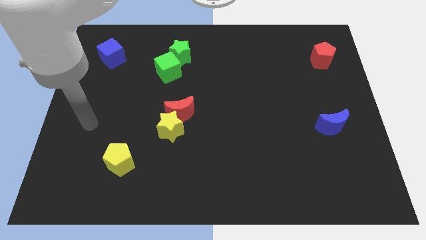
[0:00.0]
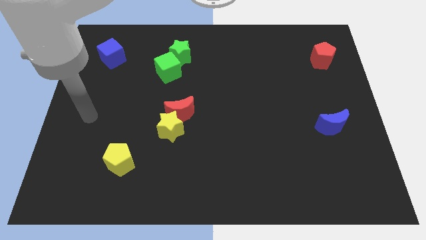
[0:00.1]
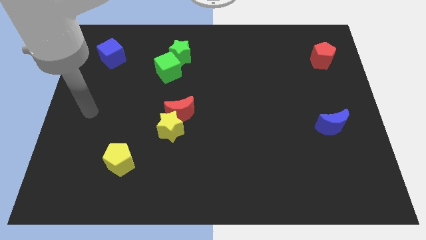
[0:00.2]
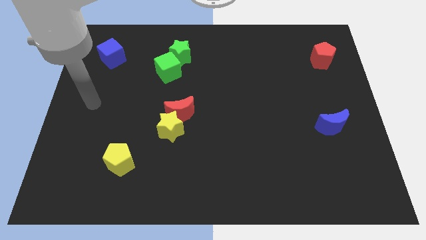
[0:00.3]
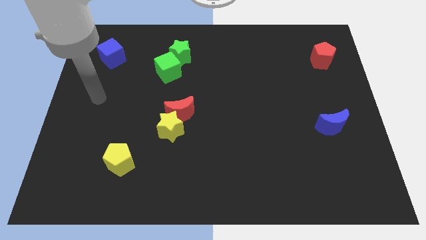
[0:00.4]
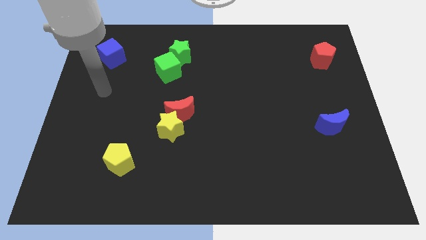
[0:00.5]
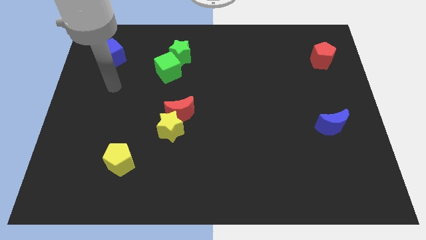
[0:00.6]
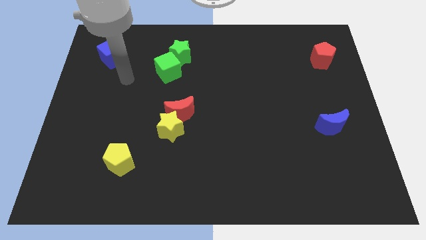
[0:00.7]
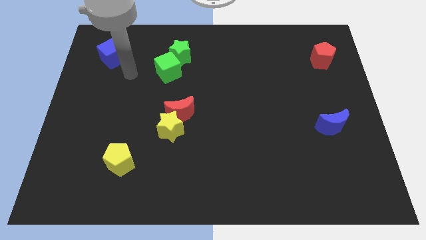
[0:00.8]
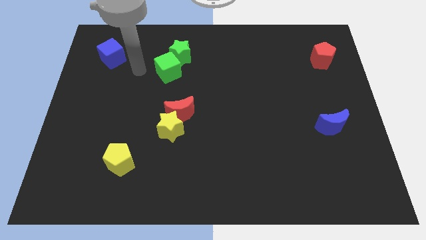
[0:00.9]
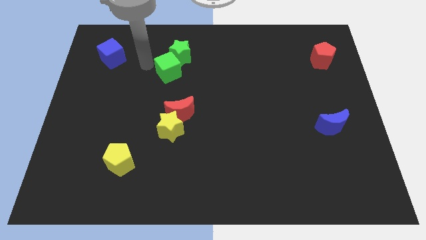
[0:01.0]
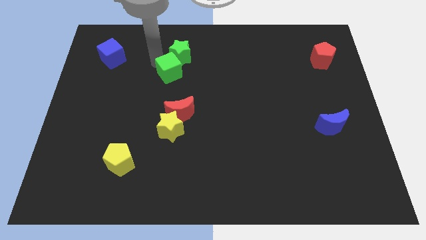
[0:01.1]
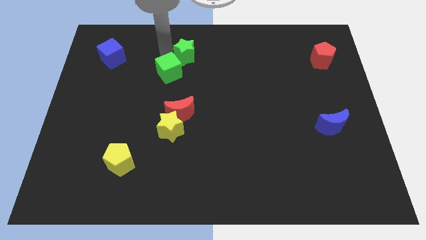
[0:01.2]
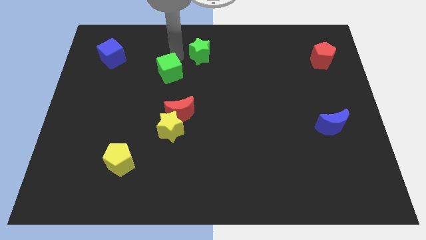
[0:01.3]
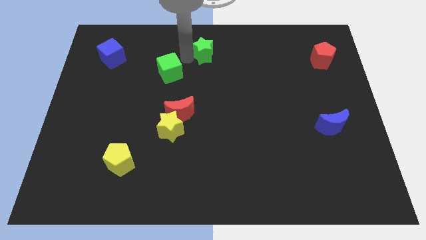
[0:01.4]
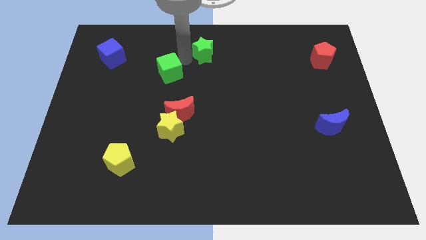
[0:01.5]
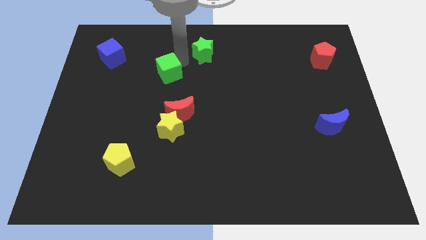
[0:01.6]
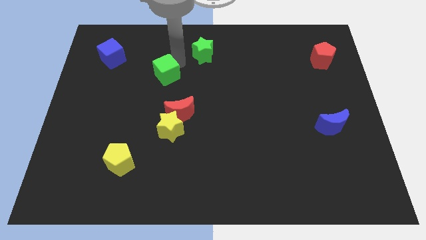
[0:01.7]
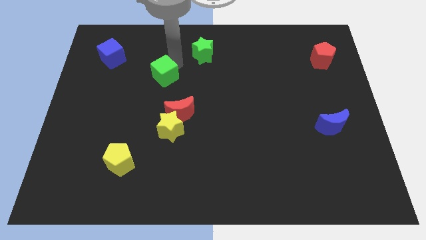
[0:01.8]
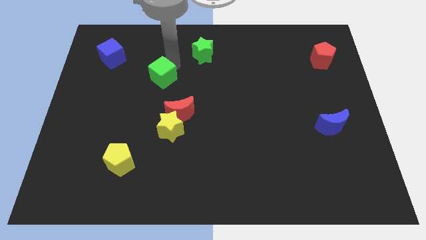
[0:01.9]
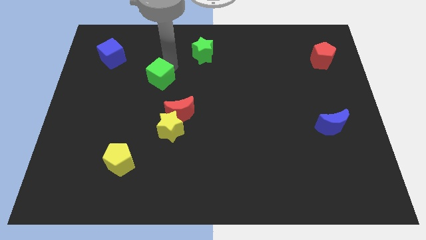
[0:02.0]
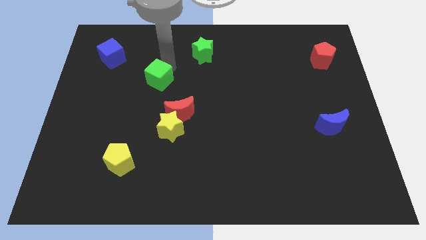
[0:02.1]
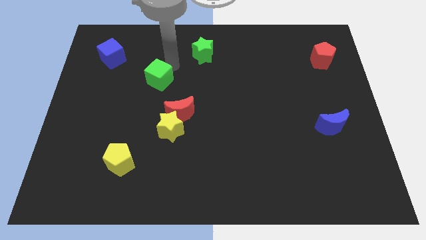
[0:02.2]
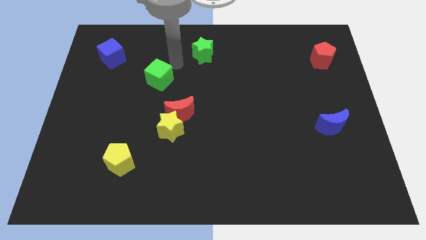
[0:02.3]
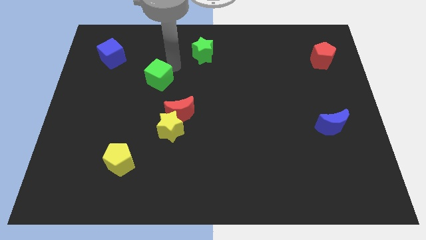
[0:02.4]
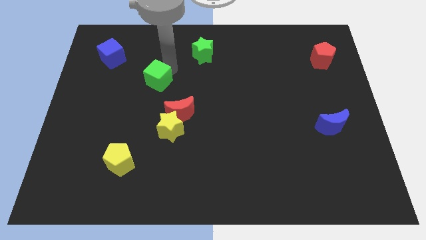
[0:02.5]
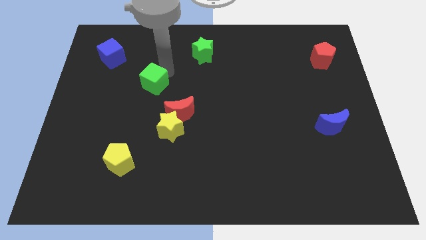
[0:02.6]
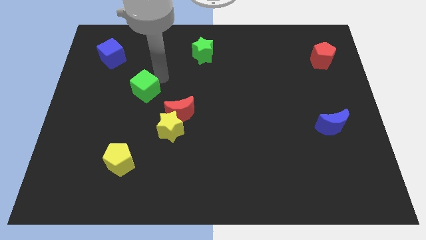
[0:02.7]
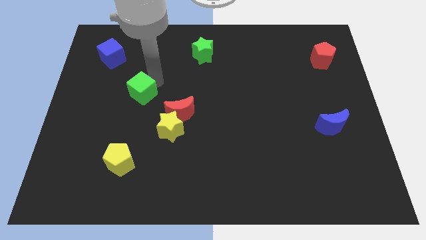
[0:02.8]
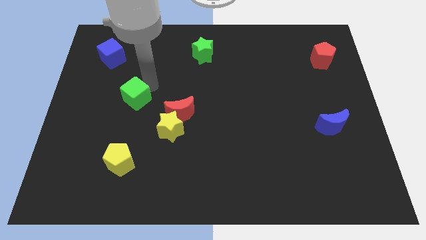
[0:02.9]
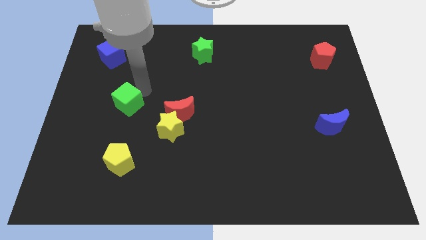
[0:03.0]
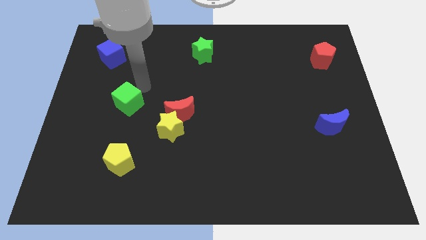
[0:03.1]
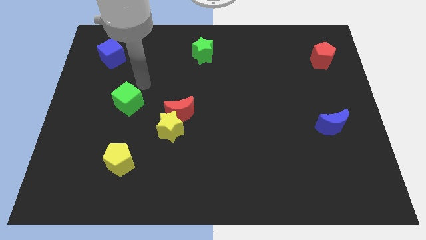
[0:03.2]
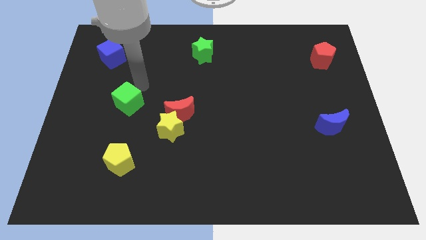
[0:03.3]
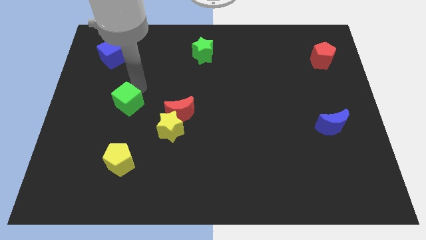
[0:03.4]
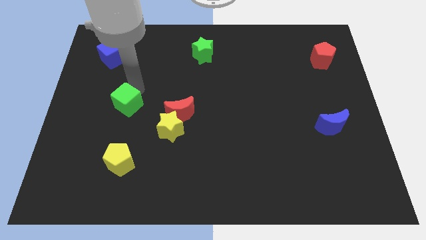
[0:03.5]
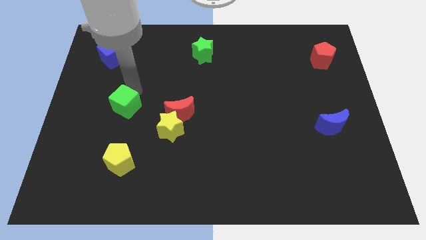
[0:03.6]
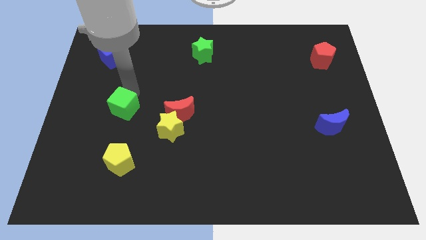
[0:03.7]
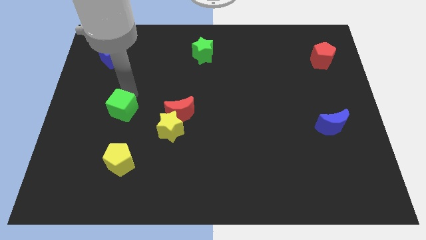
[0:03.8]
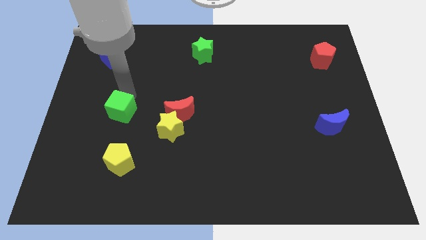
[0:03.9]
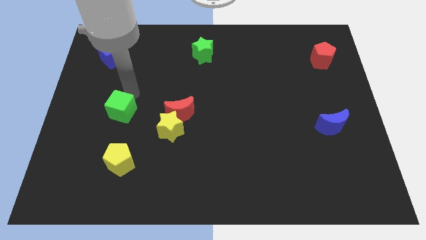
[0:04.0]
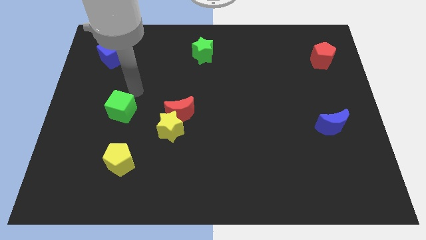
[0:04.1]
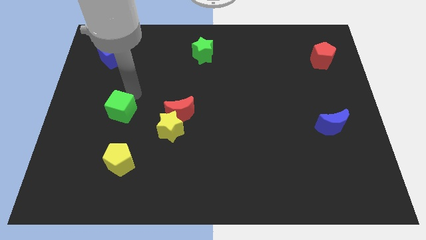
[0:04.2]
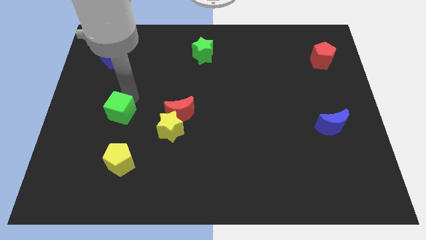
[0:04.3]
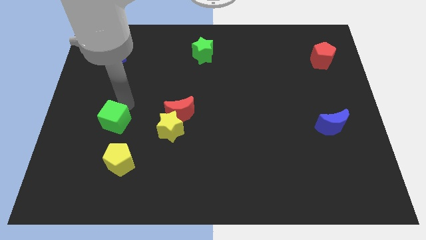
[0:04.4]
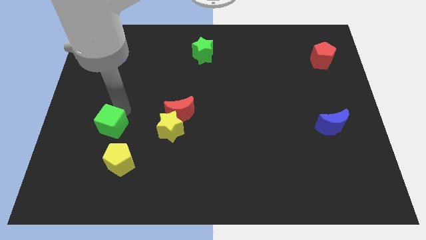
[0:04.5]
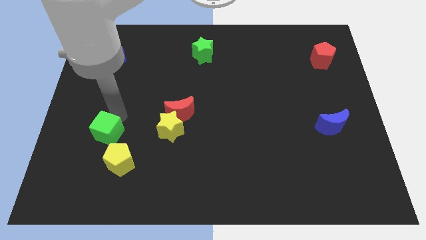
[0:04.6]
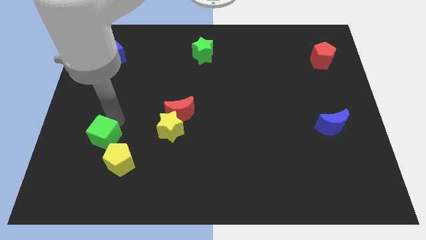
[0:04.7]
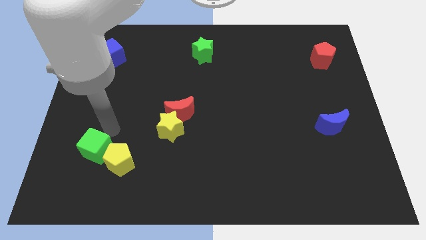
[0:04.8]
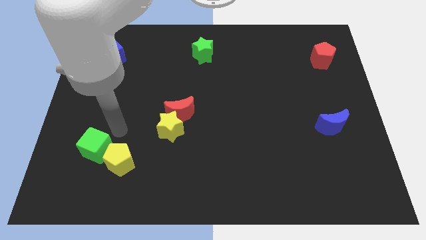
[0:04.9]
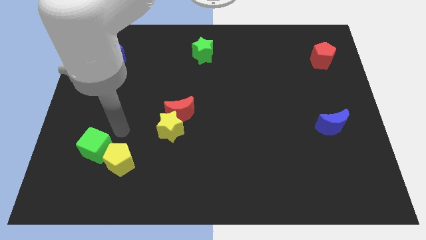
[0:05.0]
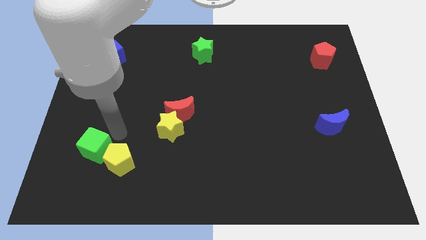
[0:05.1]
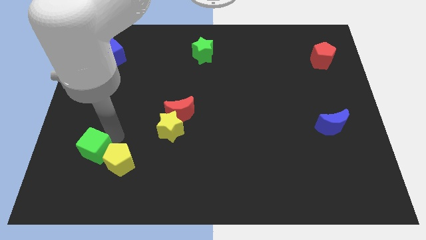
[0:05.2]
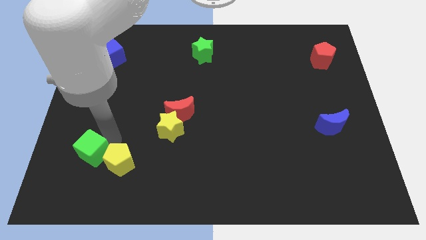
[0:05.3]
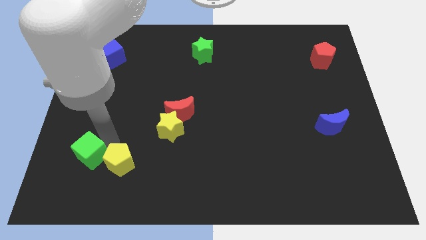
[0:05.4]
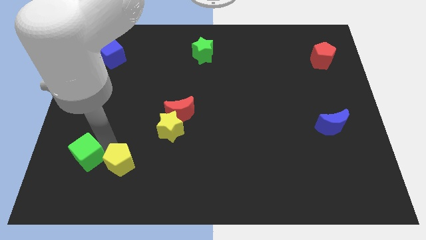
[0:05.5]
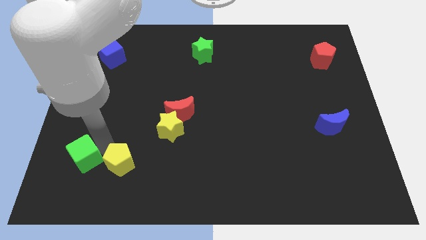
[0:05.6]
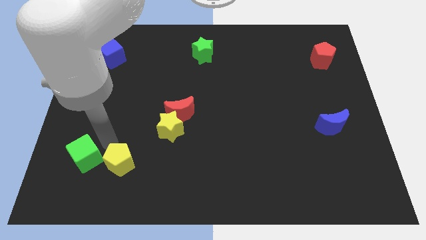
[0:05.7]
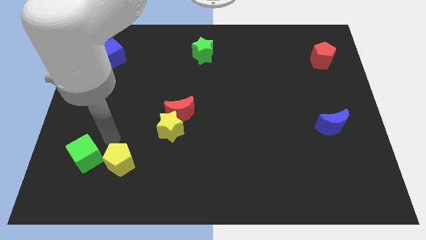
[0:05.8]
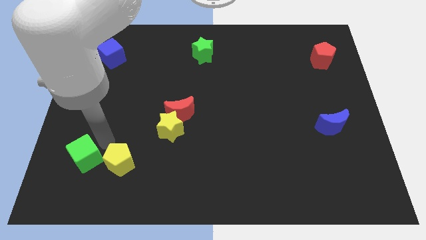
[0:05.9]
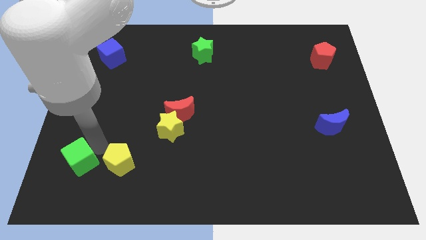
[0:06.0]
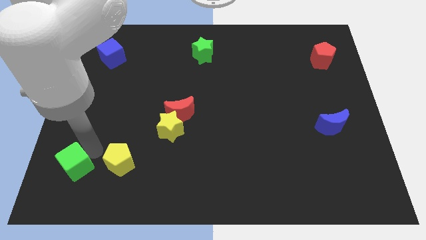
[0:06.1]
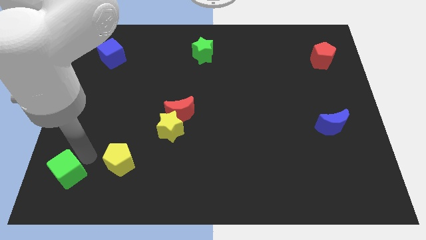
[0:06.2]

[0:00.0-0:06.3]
move the green cube to the bottom left corner

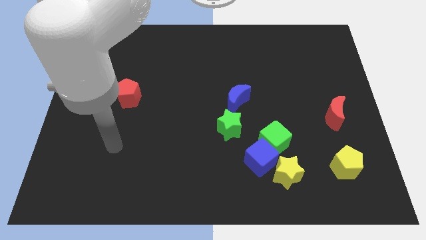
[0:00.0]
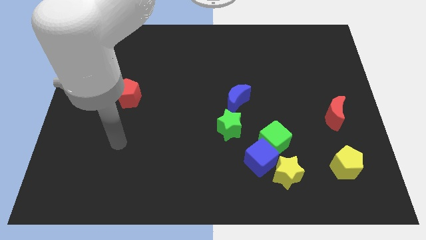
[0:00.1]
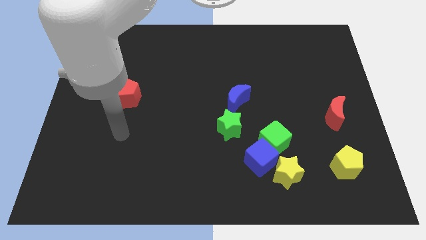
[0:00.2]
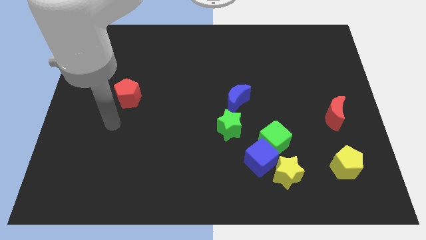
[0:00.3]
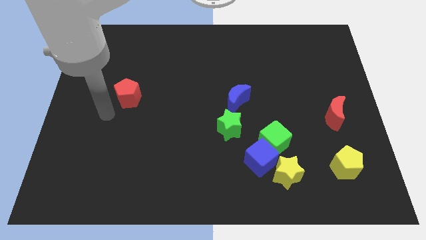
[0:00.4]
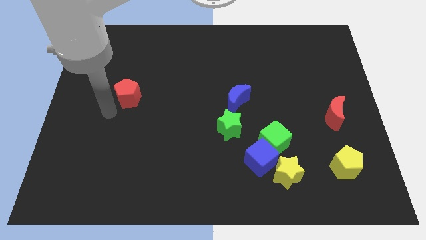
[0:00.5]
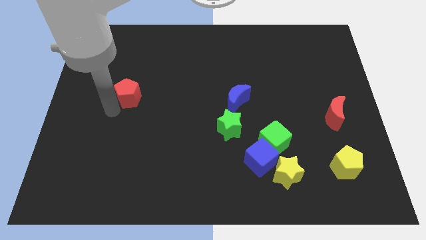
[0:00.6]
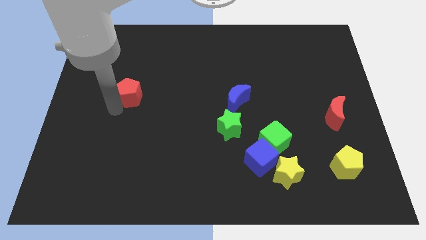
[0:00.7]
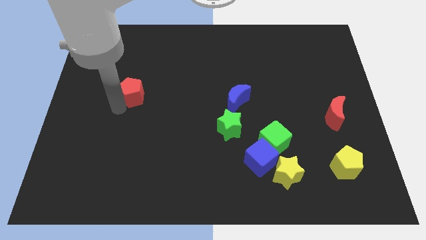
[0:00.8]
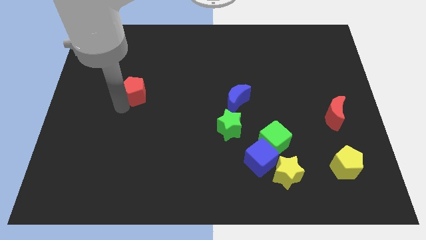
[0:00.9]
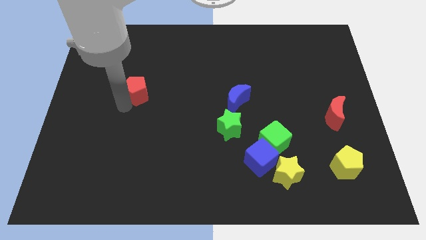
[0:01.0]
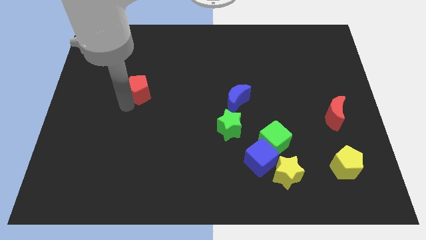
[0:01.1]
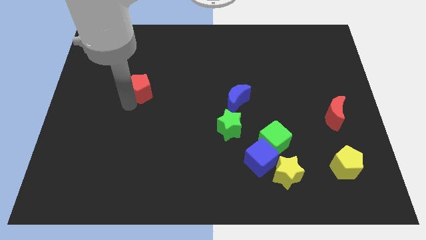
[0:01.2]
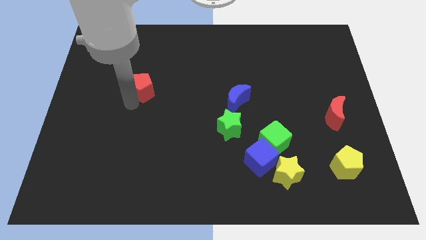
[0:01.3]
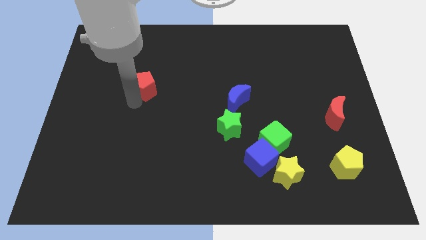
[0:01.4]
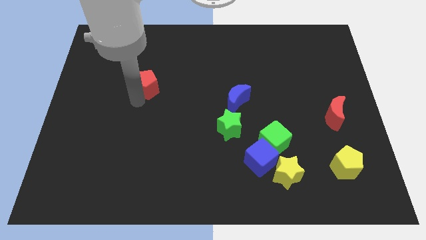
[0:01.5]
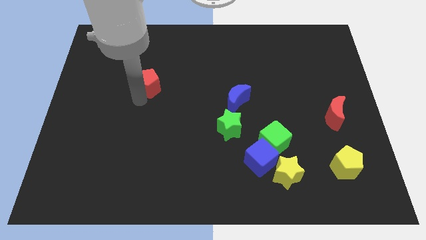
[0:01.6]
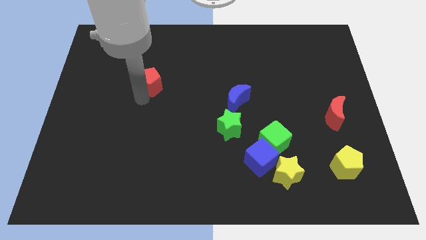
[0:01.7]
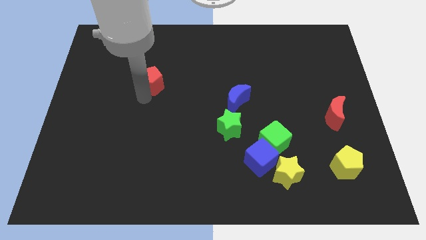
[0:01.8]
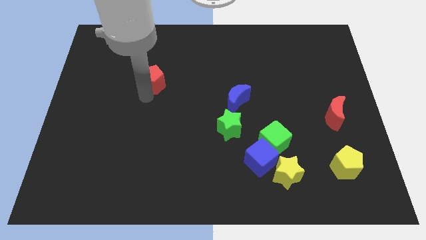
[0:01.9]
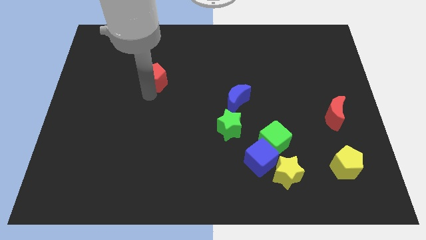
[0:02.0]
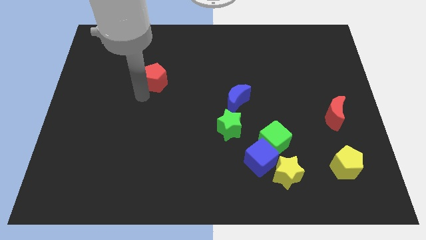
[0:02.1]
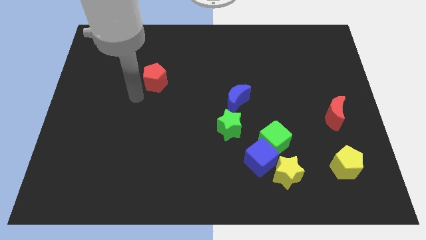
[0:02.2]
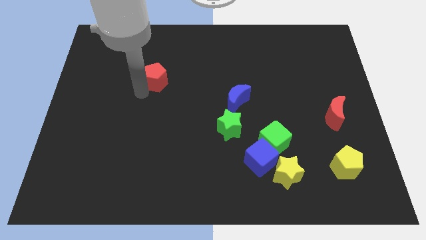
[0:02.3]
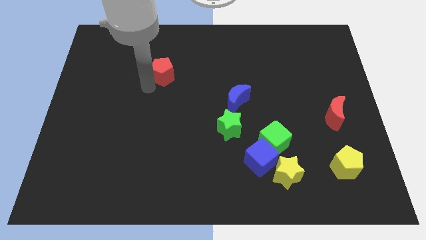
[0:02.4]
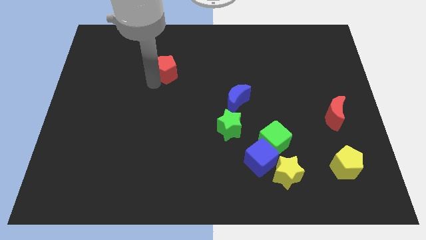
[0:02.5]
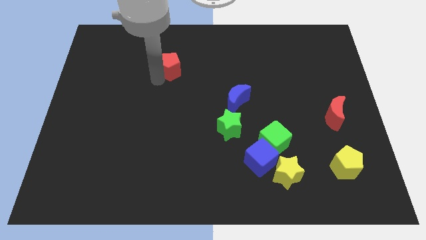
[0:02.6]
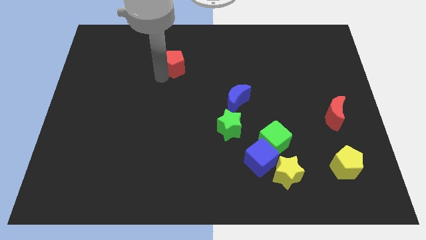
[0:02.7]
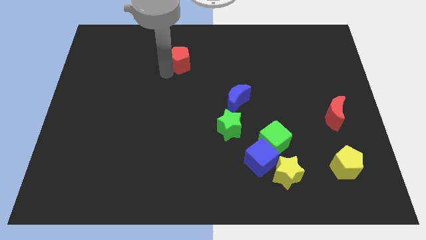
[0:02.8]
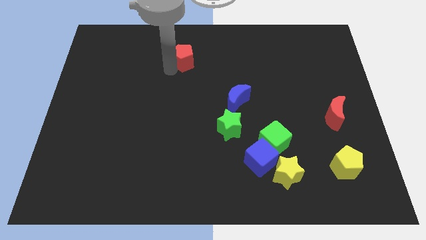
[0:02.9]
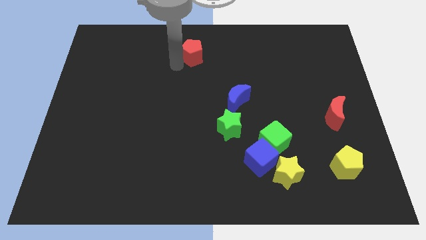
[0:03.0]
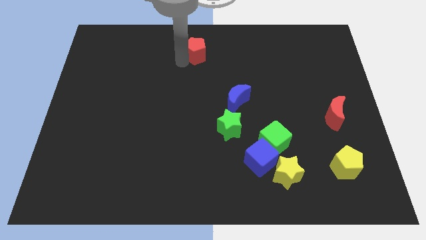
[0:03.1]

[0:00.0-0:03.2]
move the red pentagon to the top side
